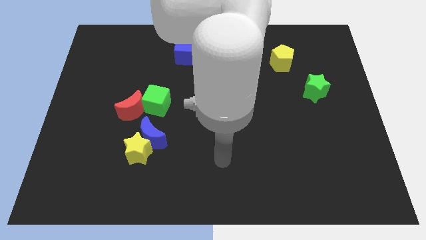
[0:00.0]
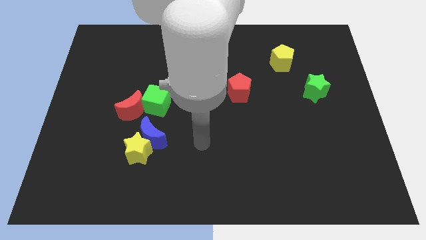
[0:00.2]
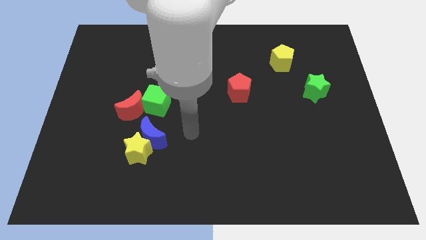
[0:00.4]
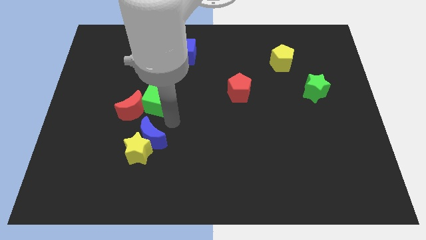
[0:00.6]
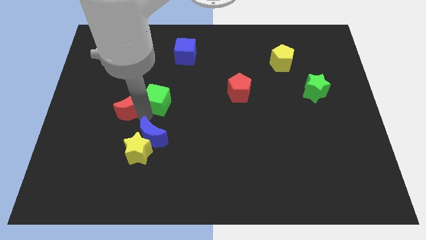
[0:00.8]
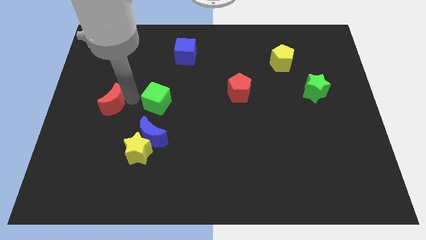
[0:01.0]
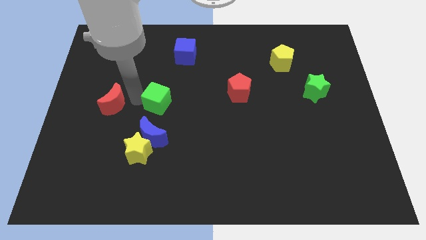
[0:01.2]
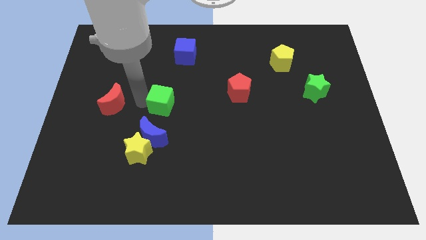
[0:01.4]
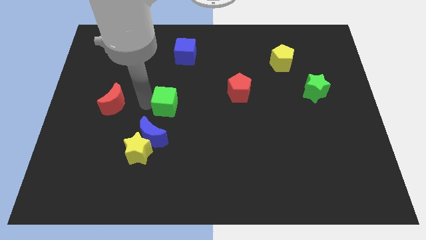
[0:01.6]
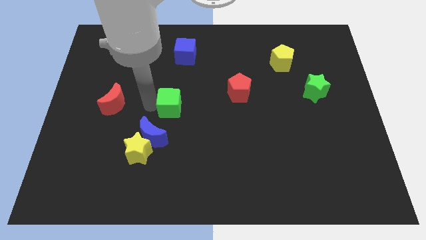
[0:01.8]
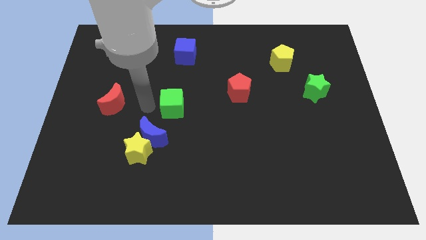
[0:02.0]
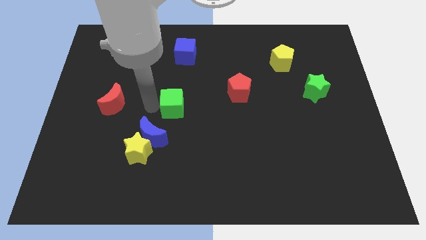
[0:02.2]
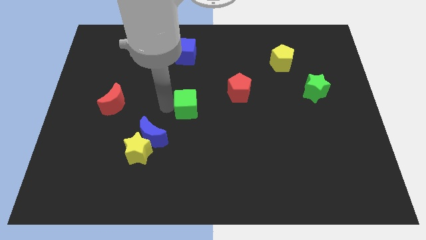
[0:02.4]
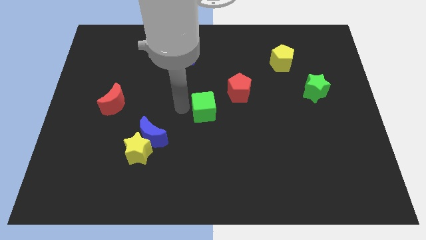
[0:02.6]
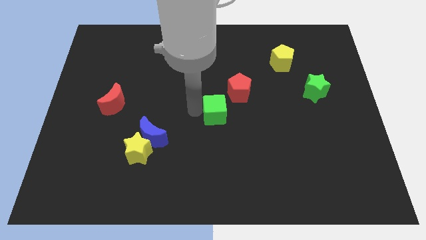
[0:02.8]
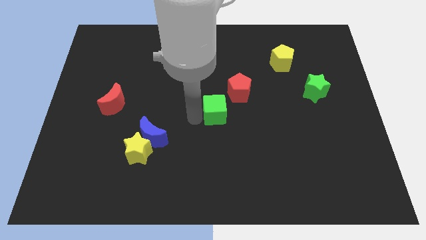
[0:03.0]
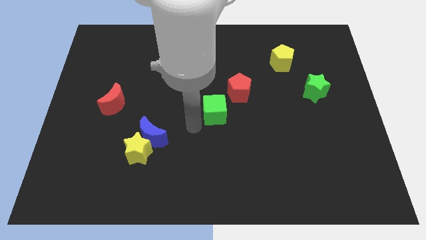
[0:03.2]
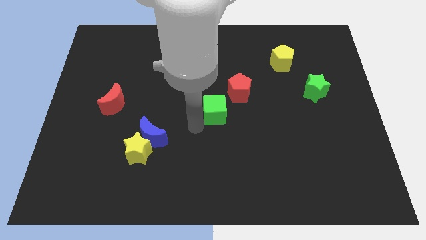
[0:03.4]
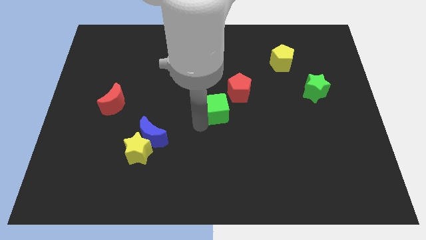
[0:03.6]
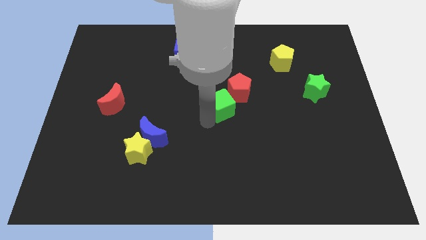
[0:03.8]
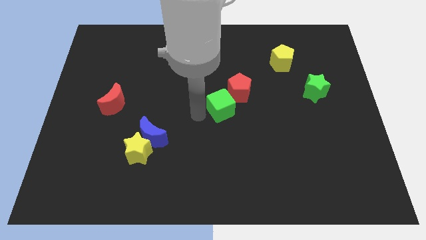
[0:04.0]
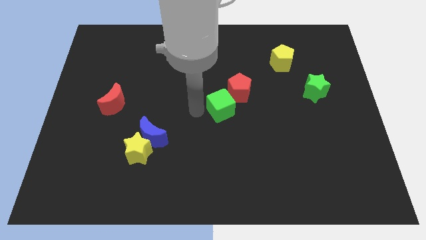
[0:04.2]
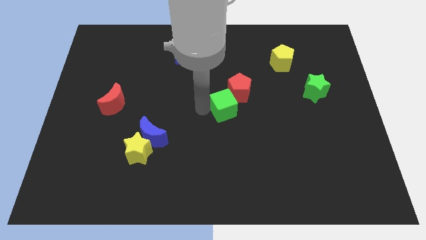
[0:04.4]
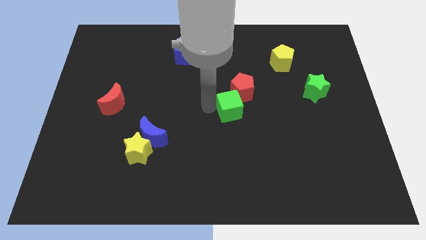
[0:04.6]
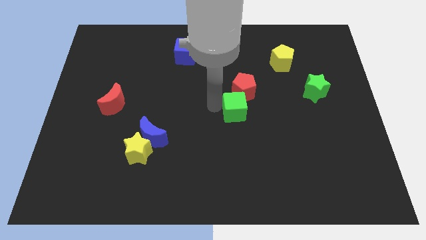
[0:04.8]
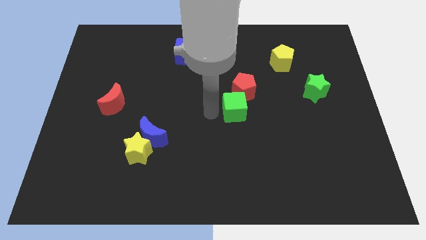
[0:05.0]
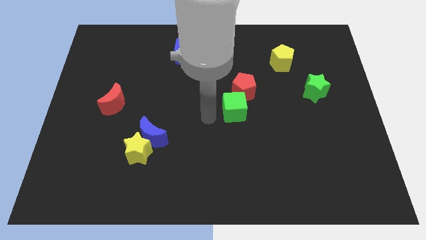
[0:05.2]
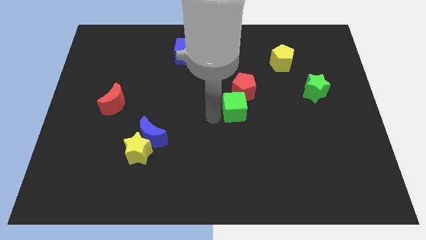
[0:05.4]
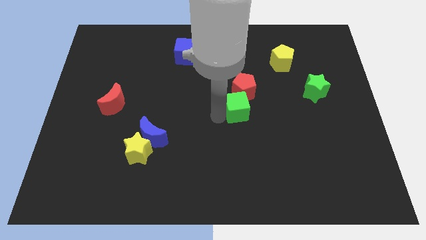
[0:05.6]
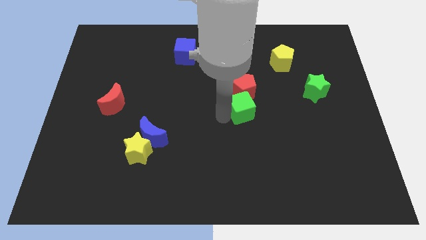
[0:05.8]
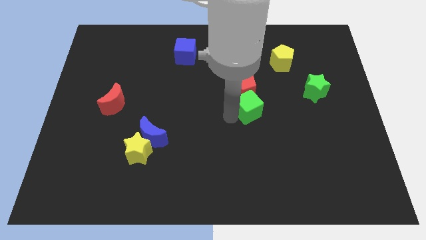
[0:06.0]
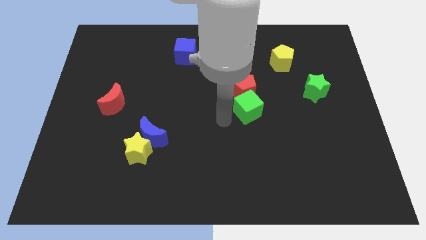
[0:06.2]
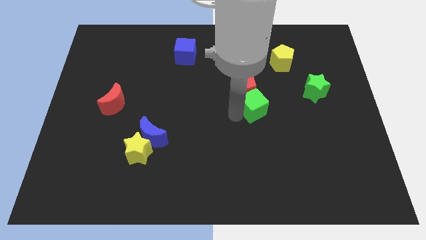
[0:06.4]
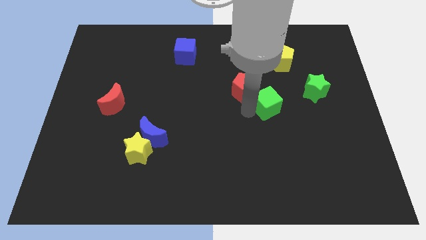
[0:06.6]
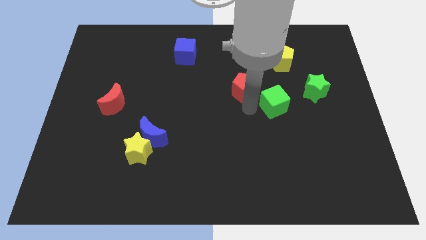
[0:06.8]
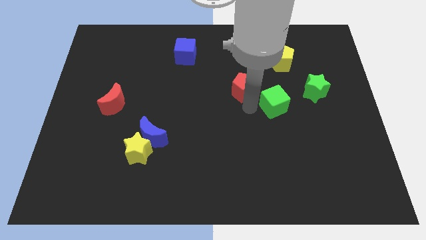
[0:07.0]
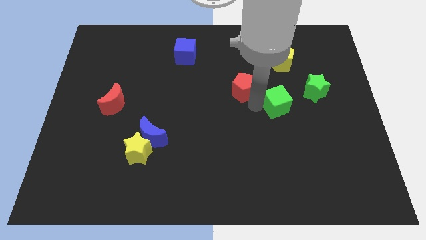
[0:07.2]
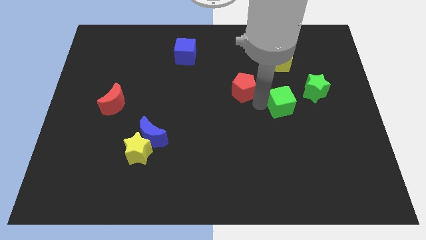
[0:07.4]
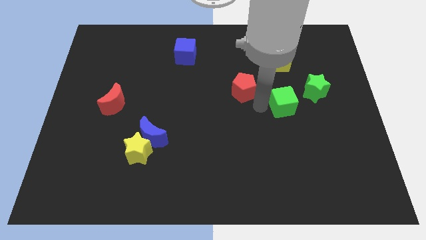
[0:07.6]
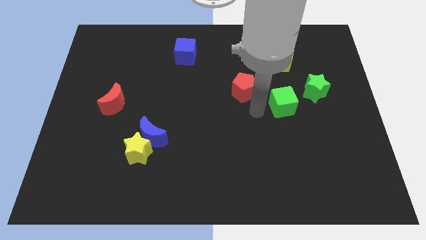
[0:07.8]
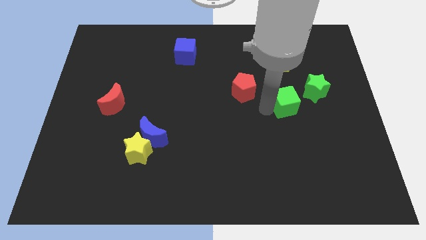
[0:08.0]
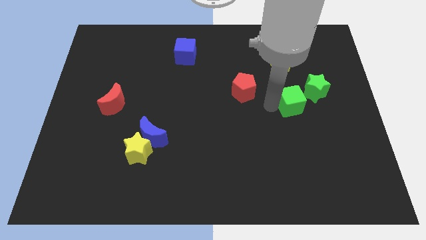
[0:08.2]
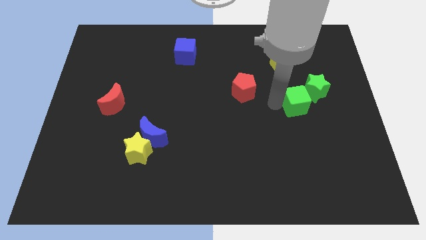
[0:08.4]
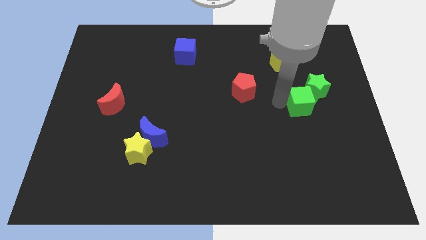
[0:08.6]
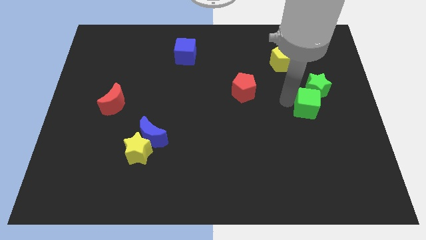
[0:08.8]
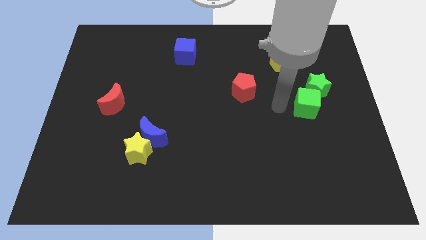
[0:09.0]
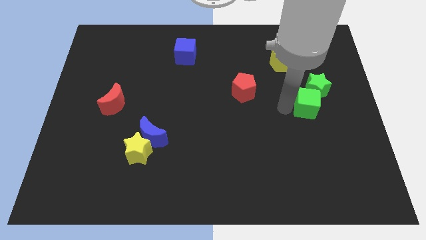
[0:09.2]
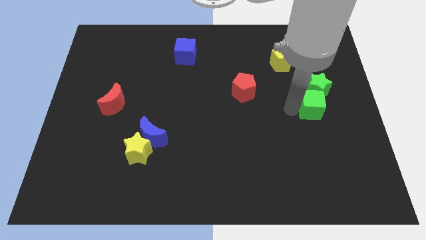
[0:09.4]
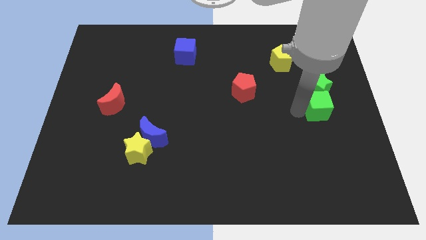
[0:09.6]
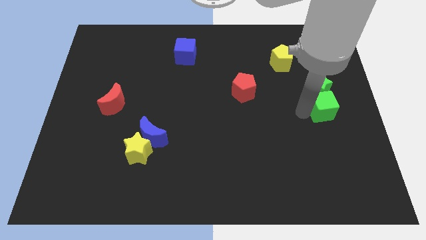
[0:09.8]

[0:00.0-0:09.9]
slide the green cube to the right side of the board

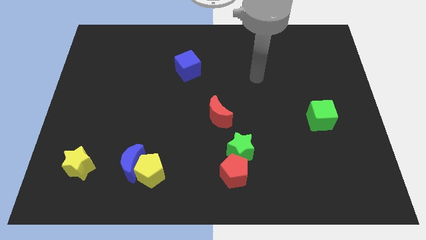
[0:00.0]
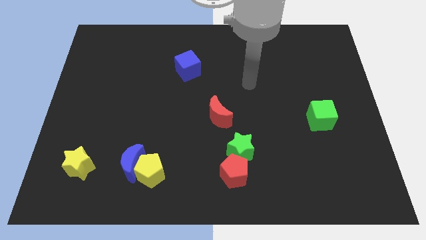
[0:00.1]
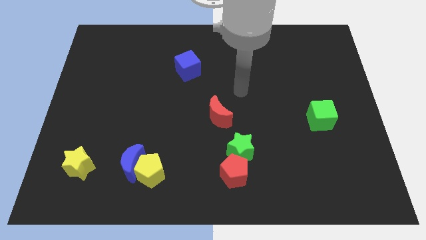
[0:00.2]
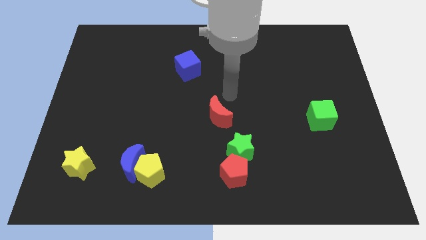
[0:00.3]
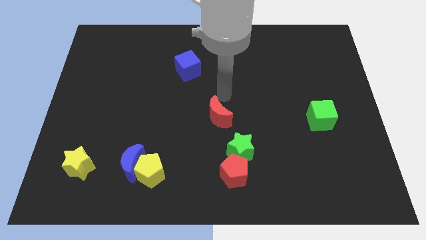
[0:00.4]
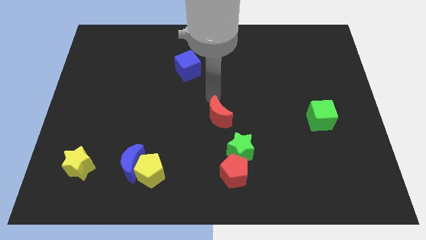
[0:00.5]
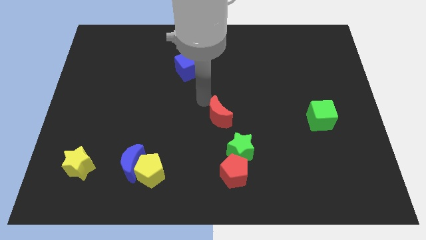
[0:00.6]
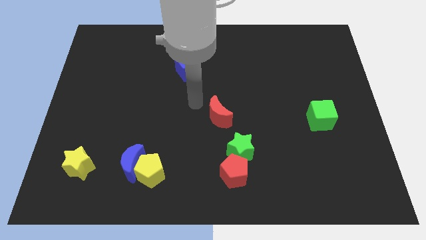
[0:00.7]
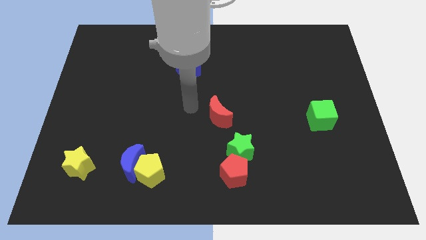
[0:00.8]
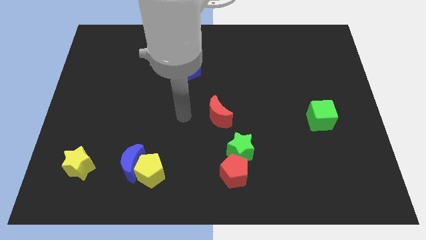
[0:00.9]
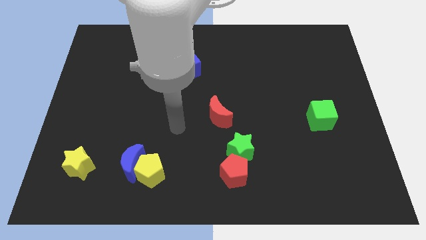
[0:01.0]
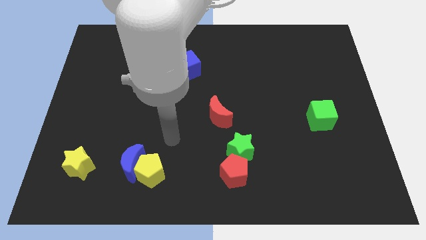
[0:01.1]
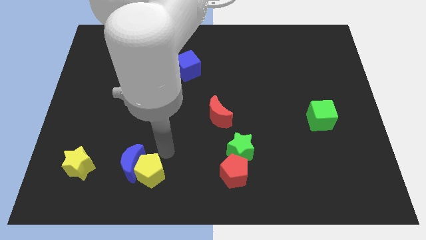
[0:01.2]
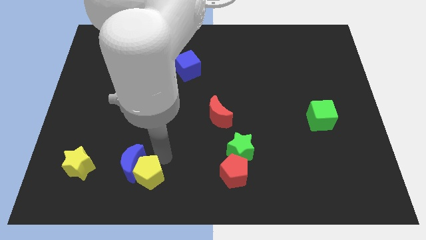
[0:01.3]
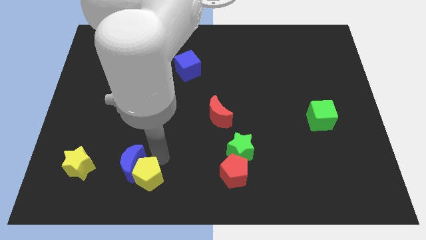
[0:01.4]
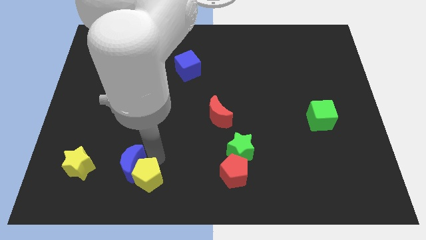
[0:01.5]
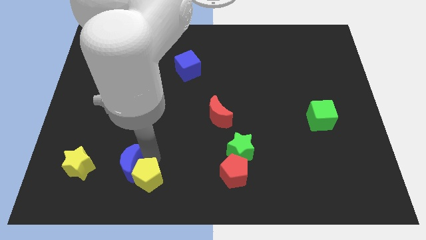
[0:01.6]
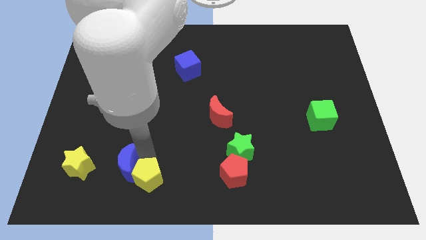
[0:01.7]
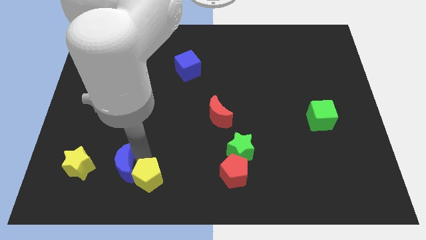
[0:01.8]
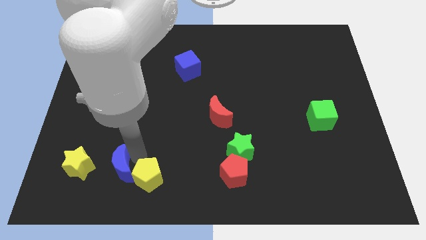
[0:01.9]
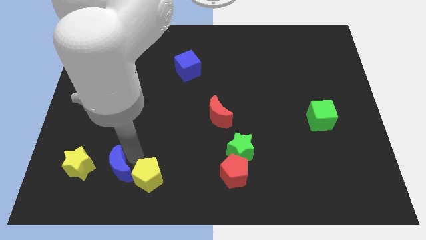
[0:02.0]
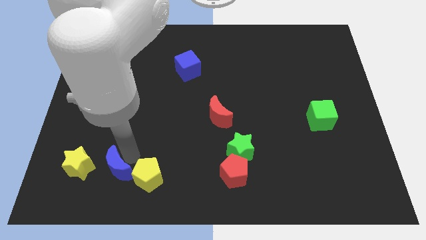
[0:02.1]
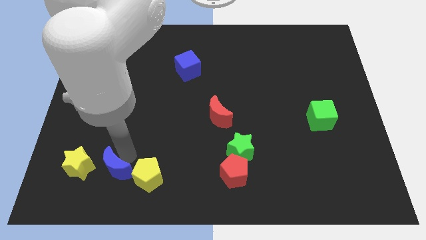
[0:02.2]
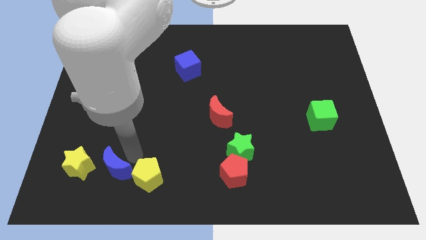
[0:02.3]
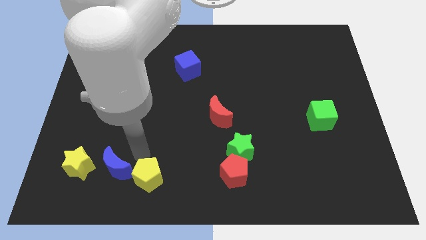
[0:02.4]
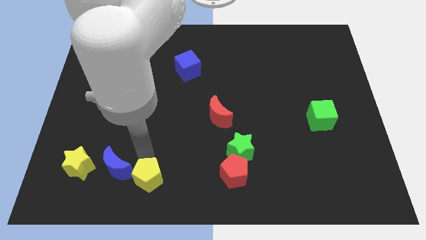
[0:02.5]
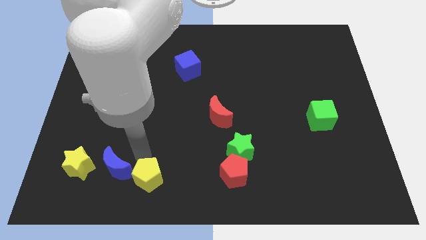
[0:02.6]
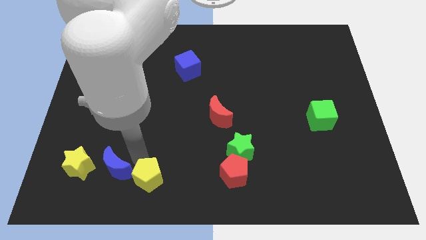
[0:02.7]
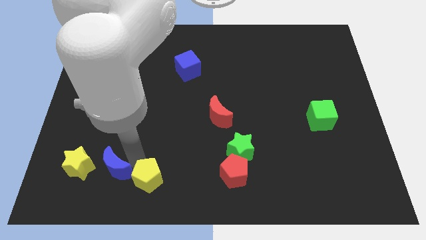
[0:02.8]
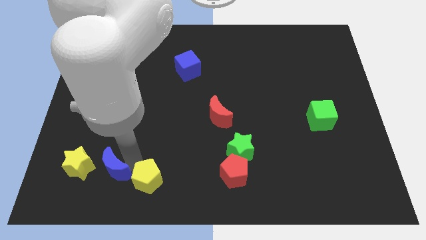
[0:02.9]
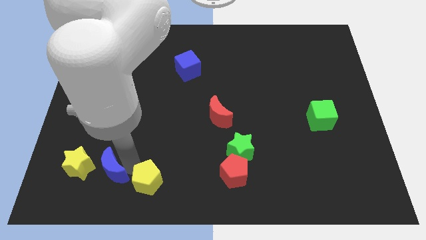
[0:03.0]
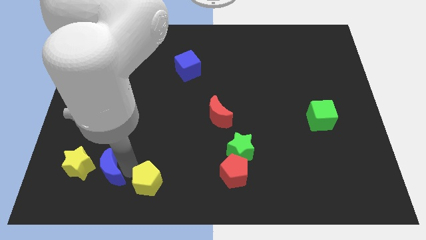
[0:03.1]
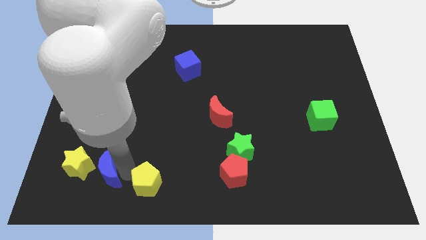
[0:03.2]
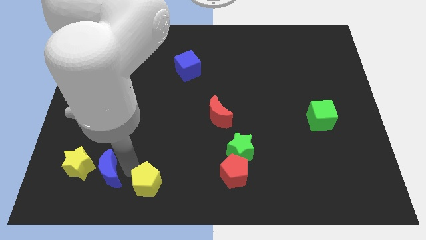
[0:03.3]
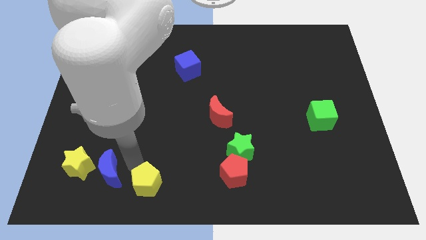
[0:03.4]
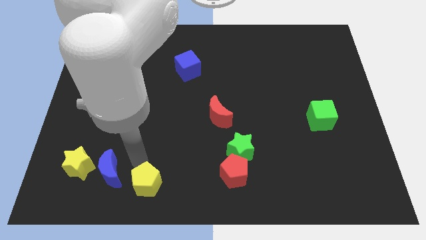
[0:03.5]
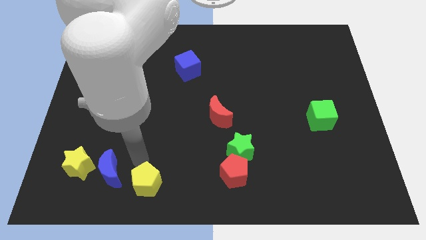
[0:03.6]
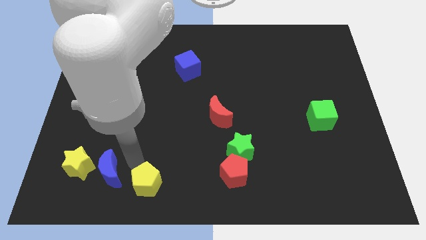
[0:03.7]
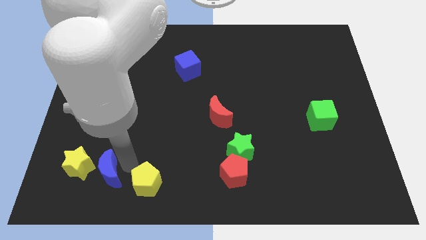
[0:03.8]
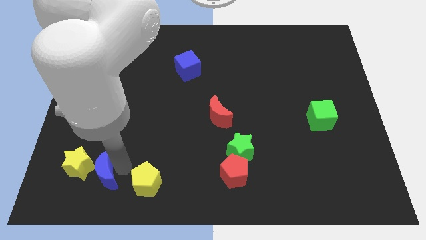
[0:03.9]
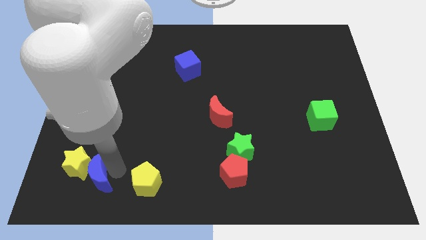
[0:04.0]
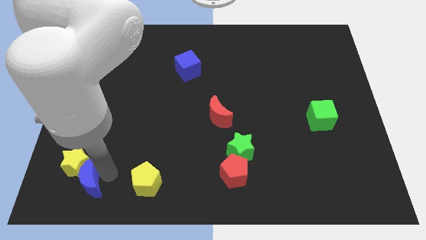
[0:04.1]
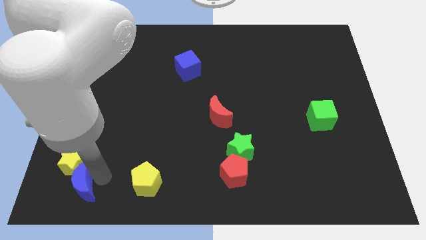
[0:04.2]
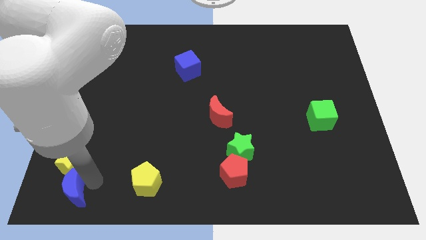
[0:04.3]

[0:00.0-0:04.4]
move the blue moon to the bottom left
